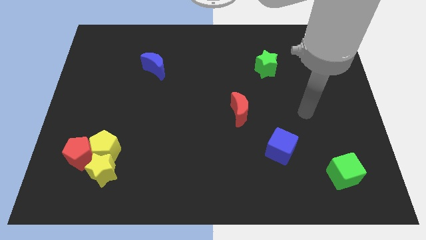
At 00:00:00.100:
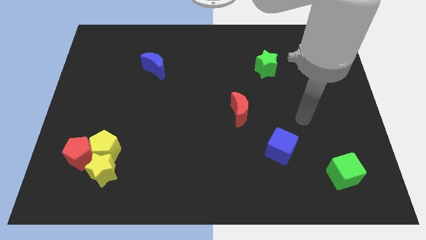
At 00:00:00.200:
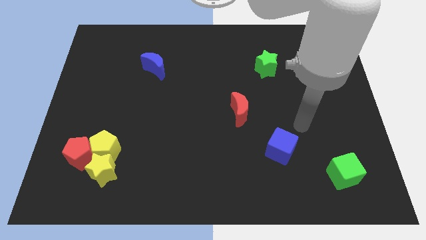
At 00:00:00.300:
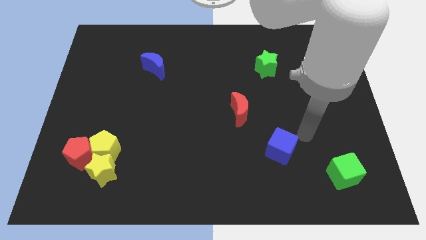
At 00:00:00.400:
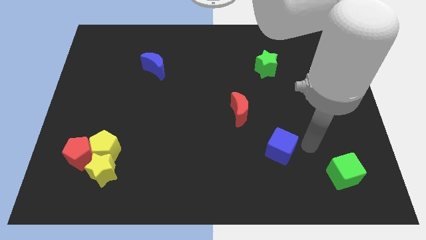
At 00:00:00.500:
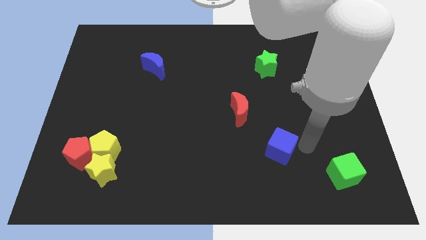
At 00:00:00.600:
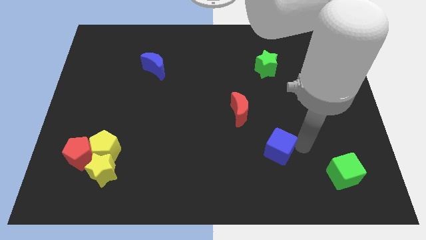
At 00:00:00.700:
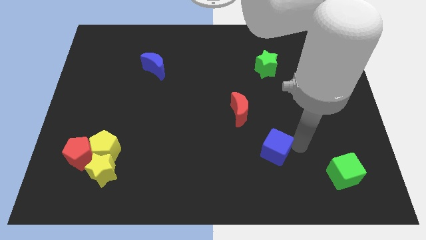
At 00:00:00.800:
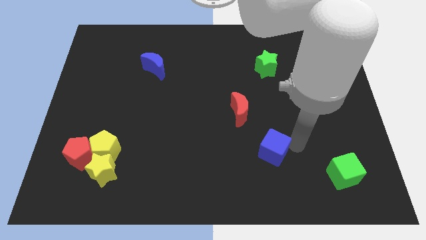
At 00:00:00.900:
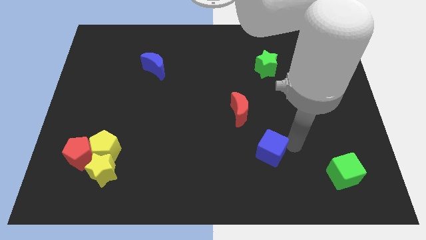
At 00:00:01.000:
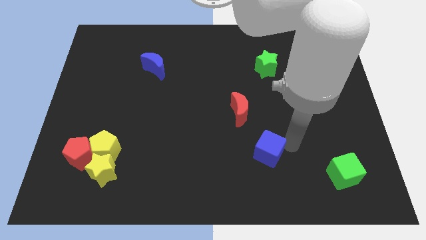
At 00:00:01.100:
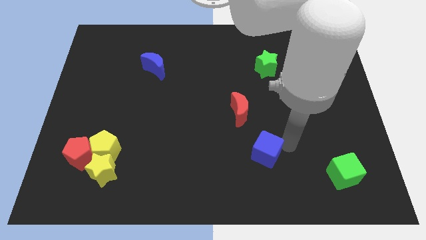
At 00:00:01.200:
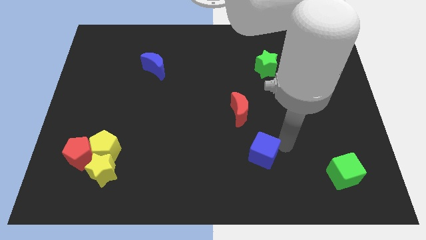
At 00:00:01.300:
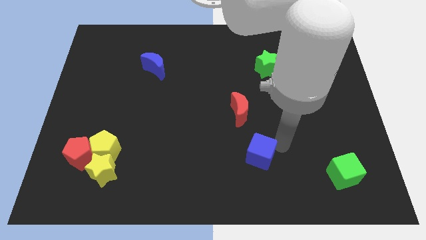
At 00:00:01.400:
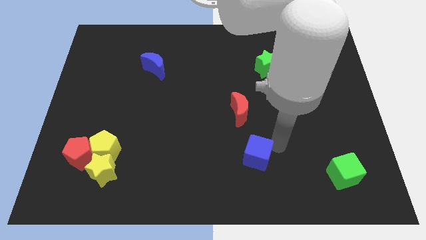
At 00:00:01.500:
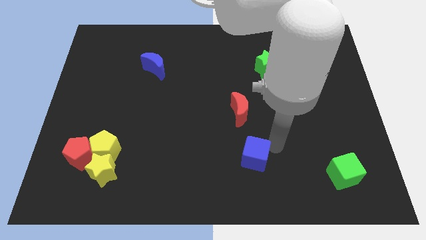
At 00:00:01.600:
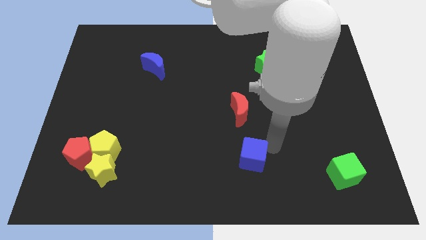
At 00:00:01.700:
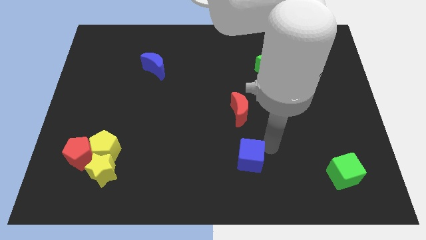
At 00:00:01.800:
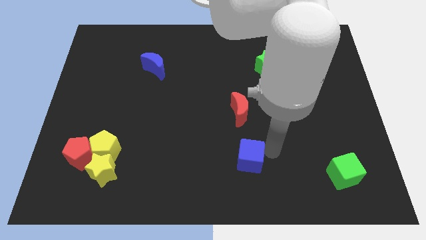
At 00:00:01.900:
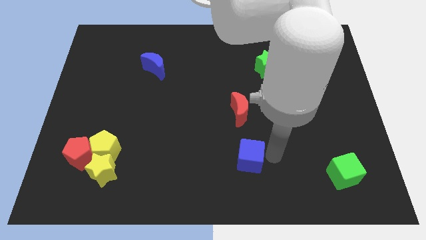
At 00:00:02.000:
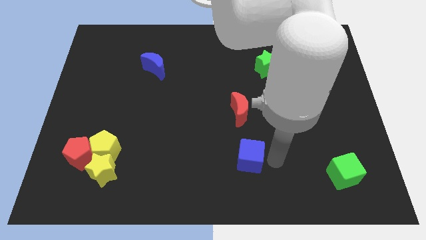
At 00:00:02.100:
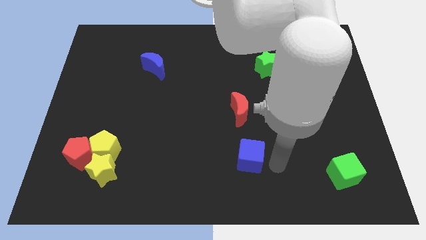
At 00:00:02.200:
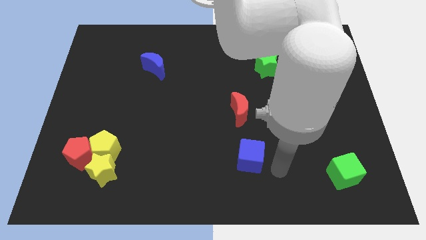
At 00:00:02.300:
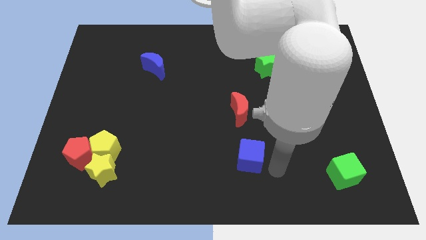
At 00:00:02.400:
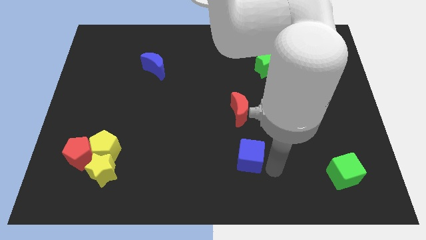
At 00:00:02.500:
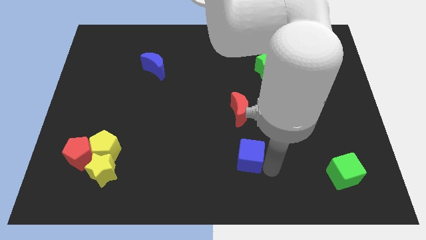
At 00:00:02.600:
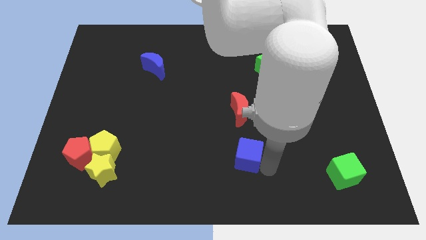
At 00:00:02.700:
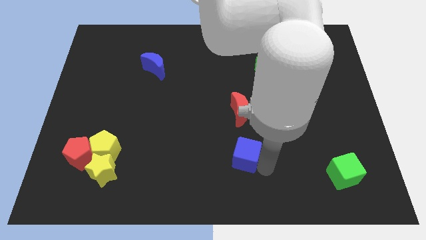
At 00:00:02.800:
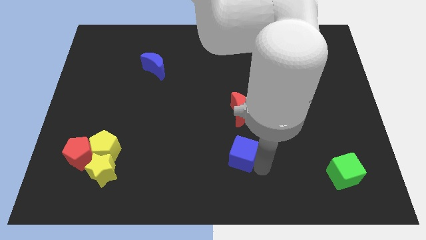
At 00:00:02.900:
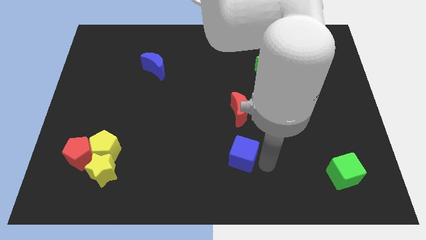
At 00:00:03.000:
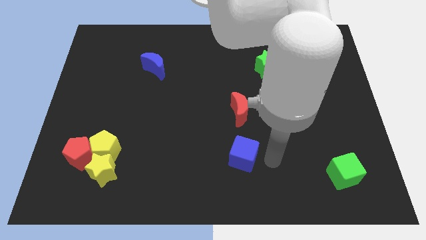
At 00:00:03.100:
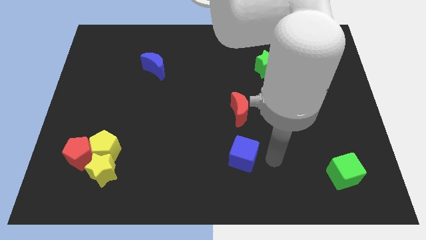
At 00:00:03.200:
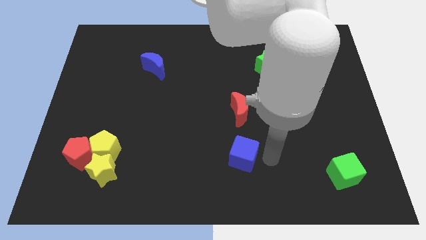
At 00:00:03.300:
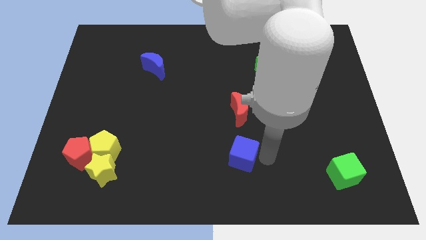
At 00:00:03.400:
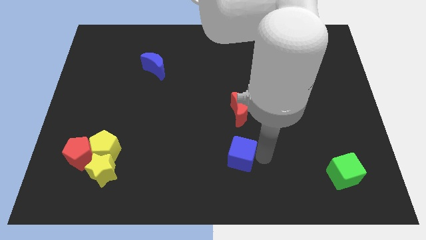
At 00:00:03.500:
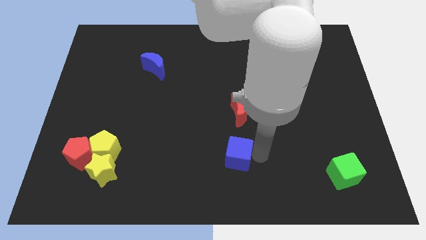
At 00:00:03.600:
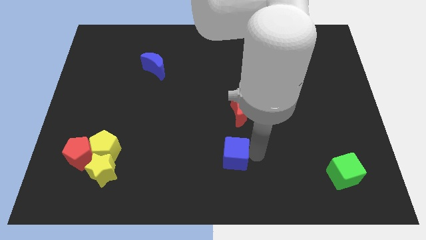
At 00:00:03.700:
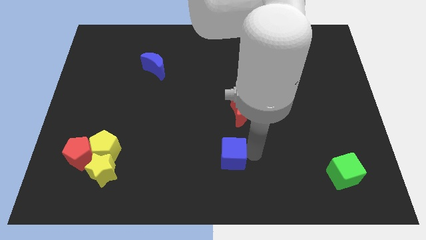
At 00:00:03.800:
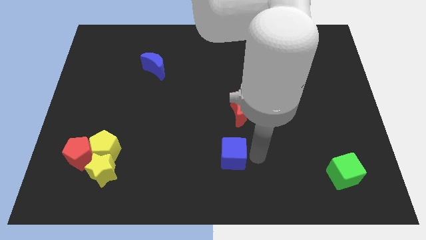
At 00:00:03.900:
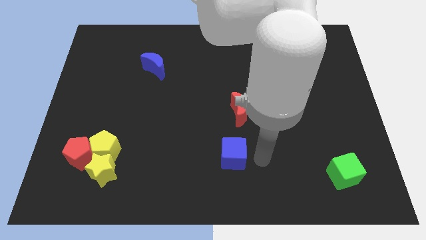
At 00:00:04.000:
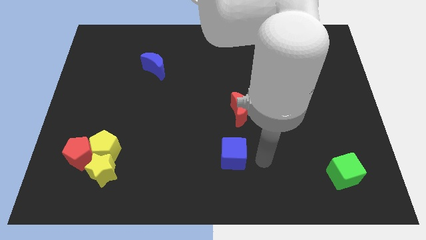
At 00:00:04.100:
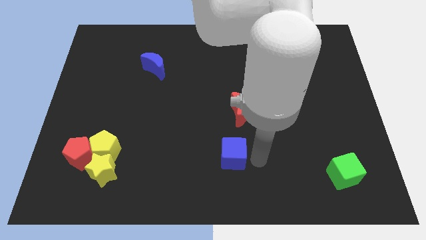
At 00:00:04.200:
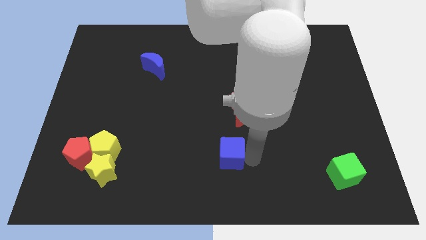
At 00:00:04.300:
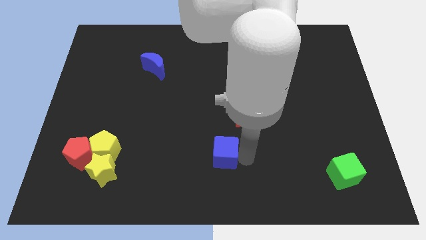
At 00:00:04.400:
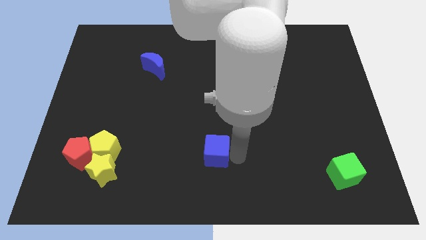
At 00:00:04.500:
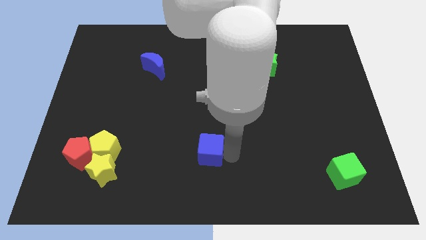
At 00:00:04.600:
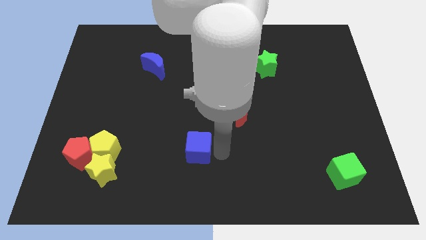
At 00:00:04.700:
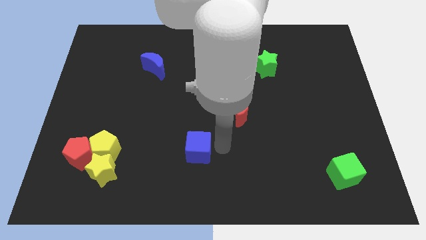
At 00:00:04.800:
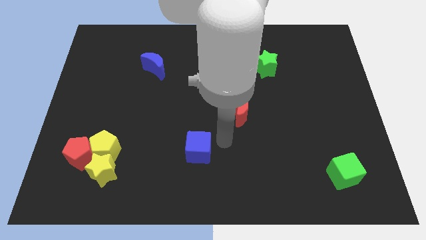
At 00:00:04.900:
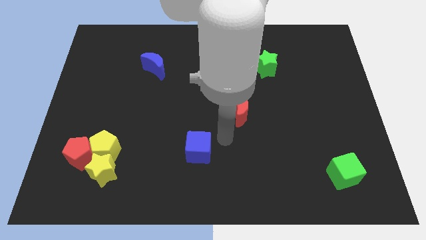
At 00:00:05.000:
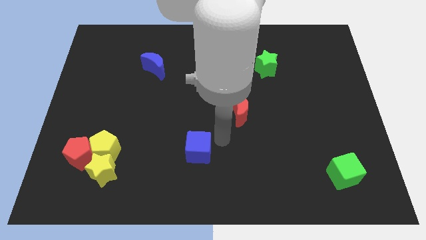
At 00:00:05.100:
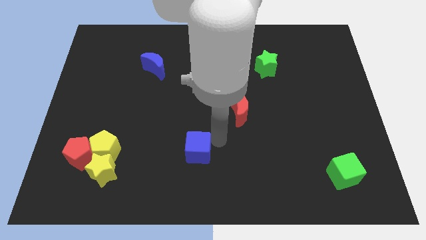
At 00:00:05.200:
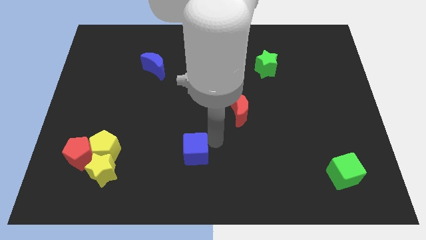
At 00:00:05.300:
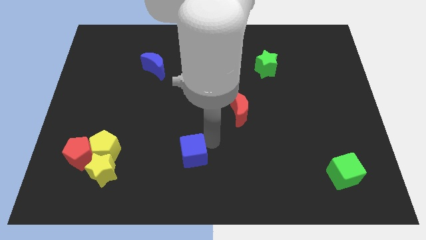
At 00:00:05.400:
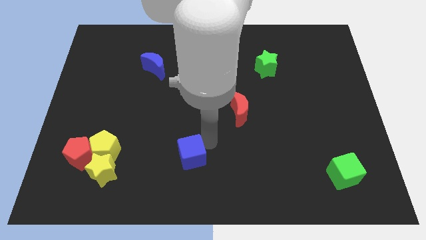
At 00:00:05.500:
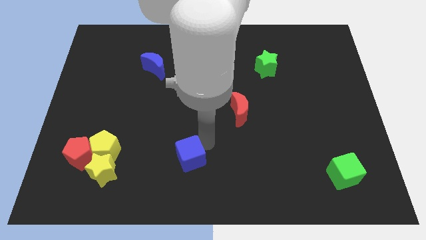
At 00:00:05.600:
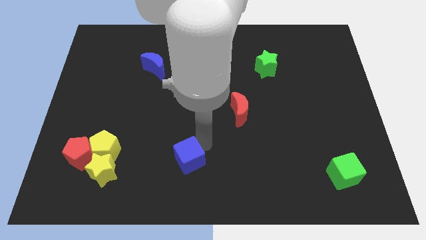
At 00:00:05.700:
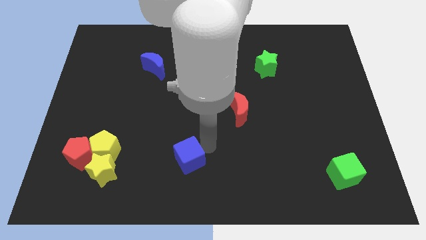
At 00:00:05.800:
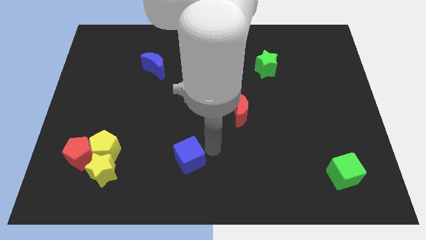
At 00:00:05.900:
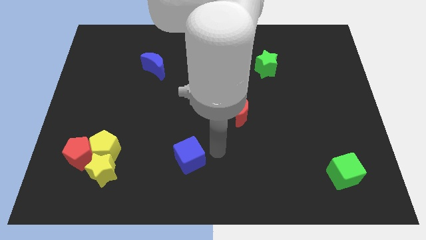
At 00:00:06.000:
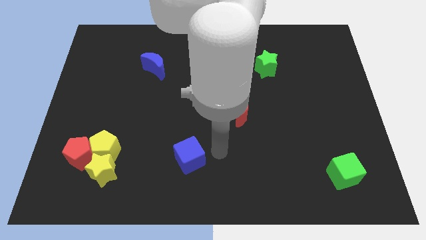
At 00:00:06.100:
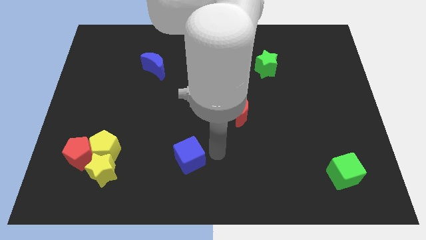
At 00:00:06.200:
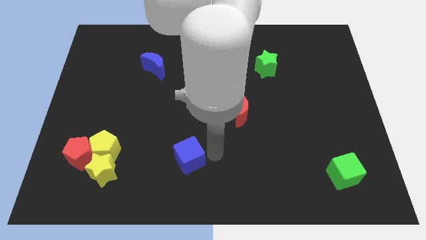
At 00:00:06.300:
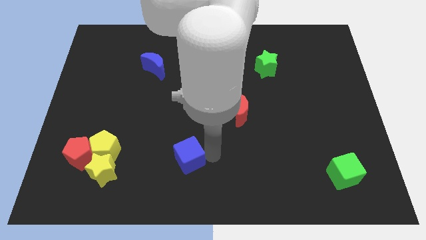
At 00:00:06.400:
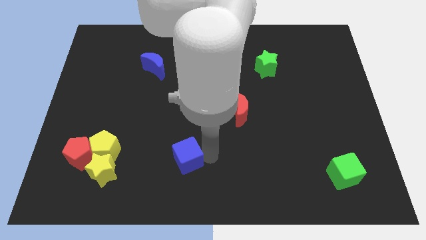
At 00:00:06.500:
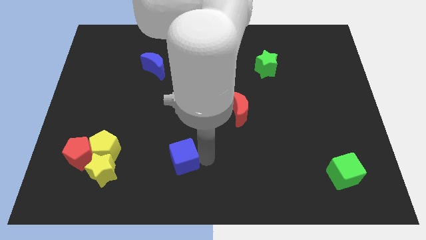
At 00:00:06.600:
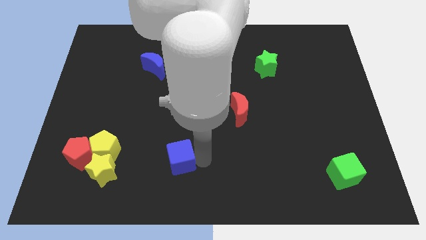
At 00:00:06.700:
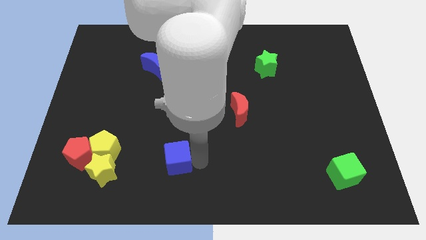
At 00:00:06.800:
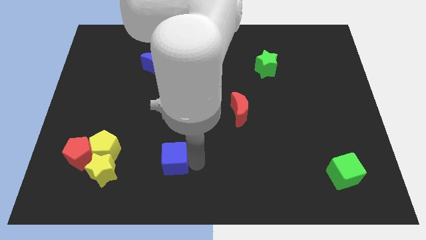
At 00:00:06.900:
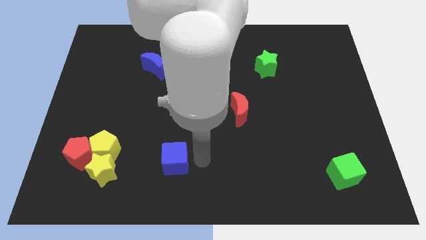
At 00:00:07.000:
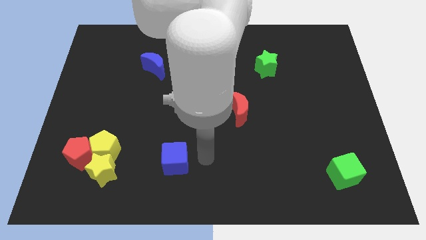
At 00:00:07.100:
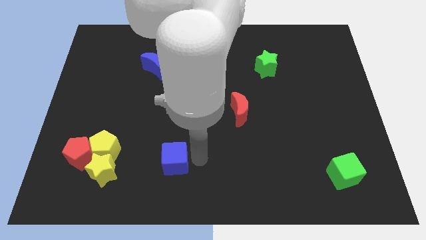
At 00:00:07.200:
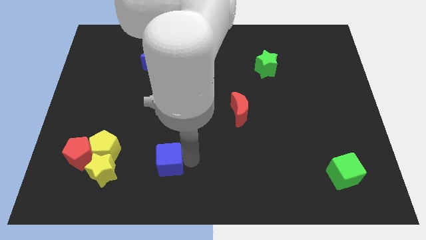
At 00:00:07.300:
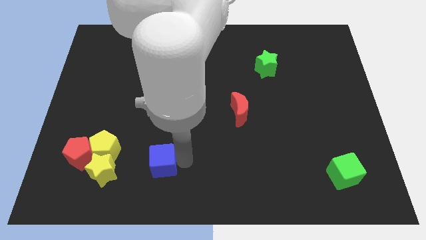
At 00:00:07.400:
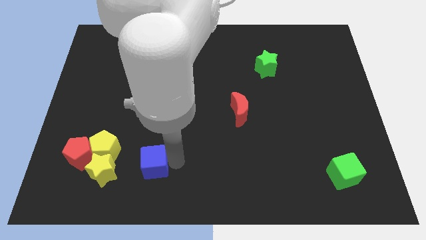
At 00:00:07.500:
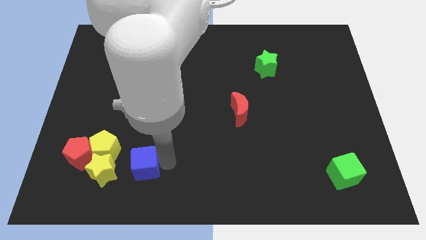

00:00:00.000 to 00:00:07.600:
move the blue cube to the bottom right side of the yellow pentagon
